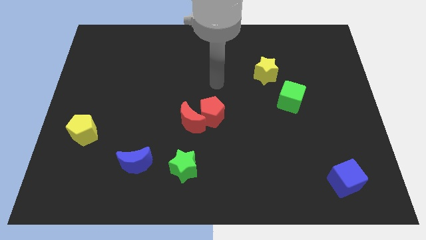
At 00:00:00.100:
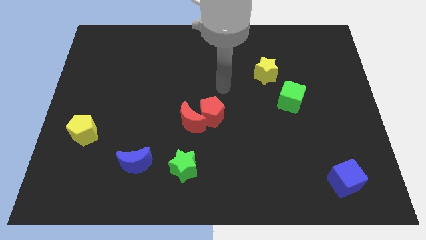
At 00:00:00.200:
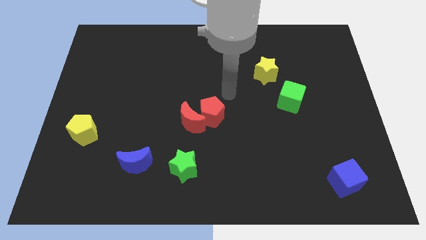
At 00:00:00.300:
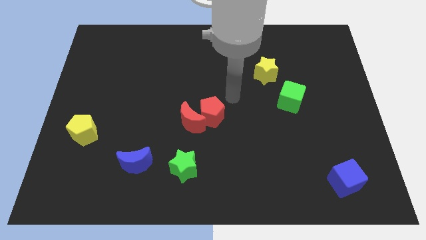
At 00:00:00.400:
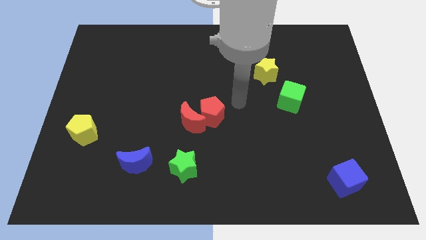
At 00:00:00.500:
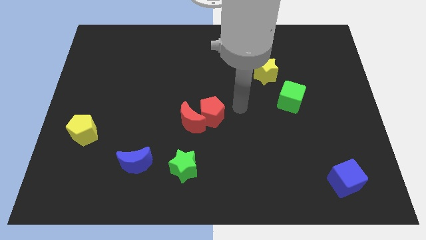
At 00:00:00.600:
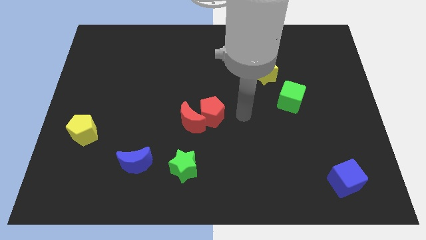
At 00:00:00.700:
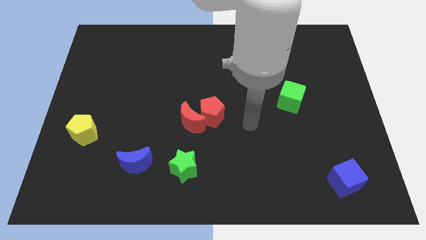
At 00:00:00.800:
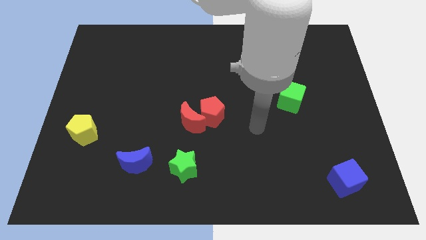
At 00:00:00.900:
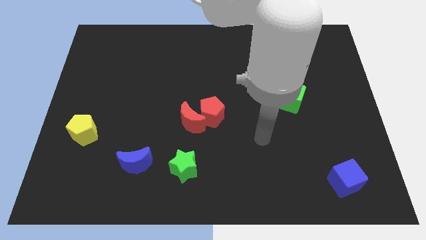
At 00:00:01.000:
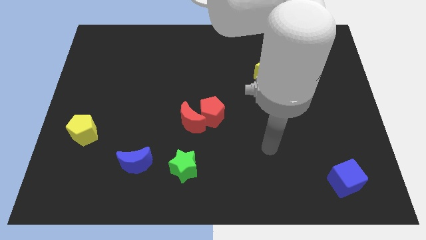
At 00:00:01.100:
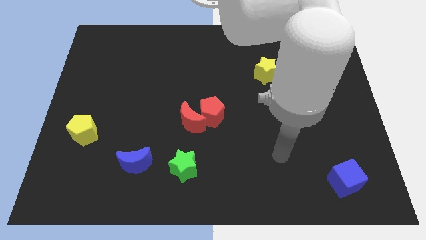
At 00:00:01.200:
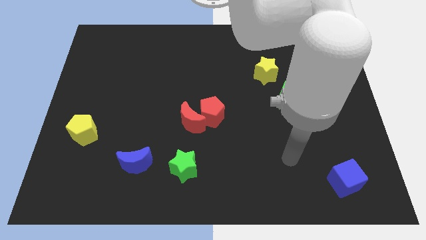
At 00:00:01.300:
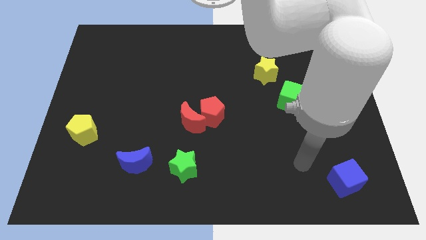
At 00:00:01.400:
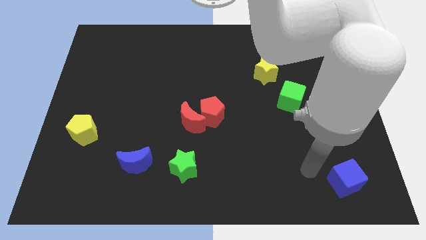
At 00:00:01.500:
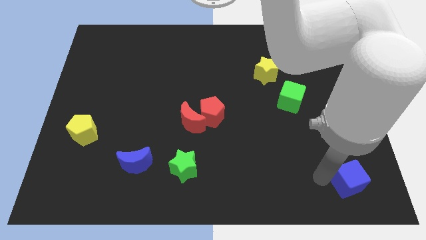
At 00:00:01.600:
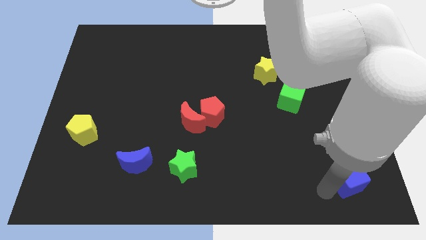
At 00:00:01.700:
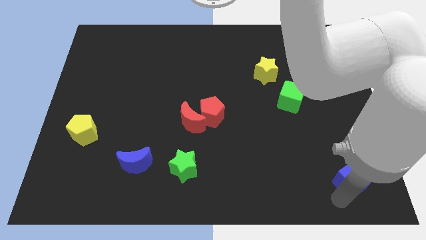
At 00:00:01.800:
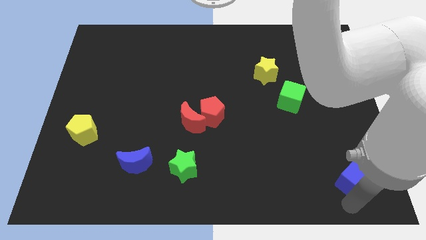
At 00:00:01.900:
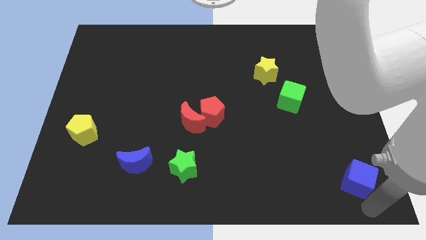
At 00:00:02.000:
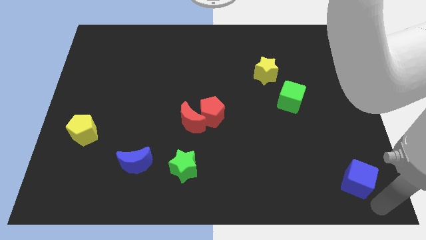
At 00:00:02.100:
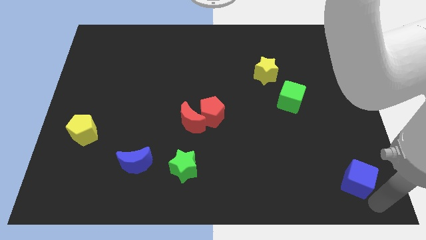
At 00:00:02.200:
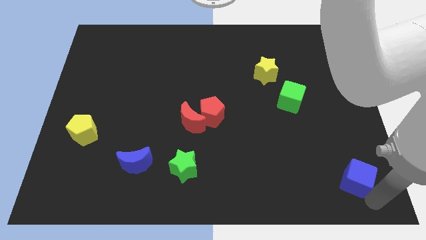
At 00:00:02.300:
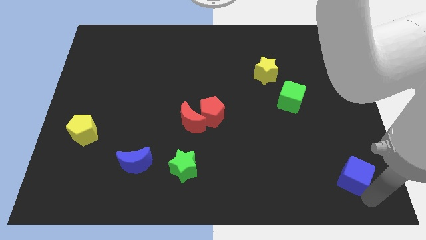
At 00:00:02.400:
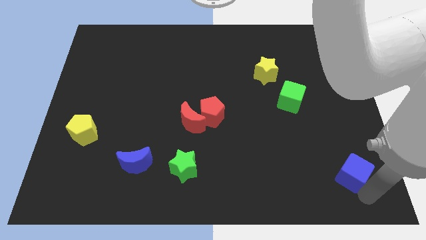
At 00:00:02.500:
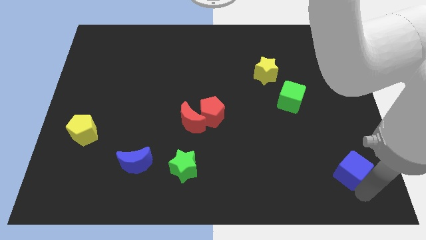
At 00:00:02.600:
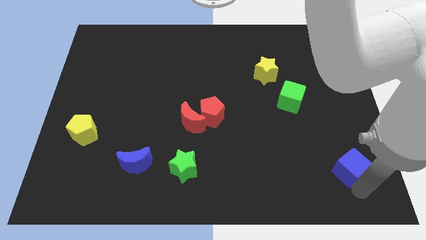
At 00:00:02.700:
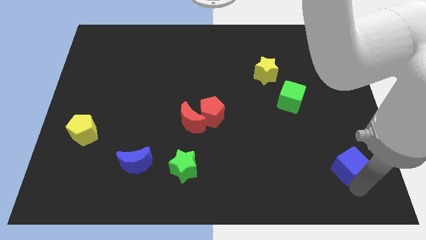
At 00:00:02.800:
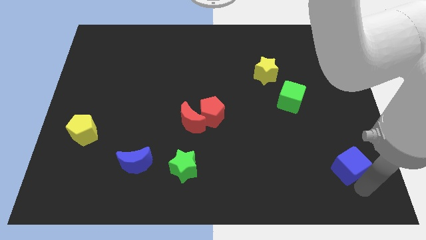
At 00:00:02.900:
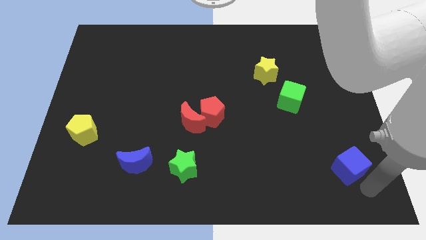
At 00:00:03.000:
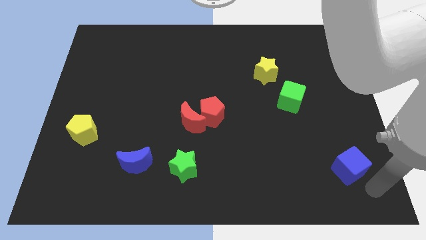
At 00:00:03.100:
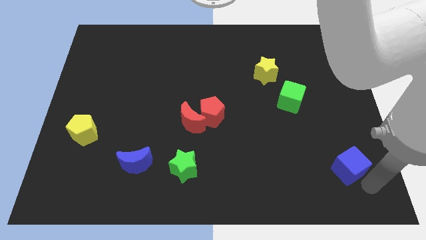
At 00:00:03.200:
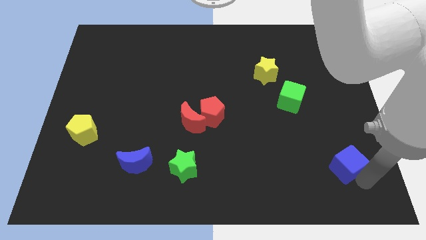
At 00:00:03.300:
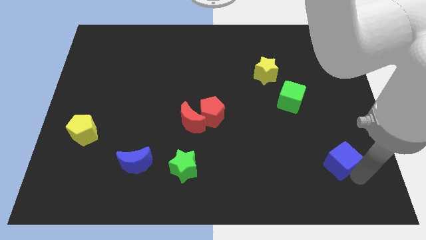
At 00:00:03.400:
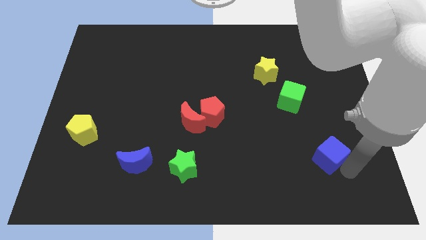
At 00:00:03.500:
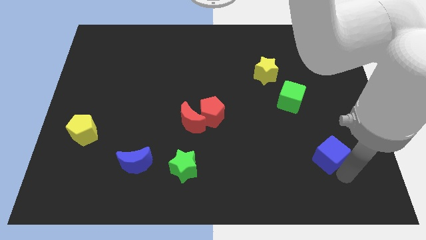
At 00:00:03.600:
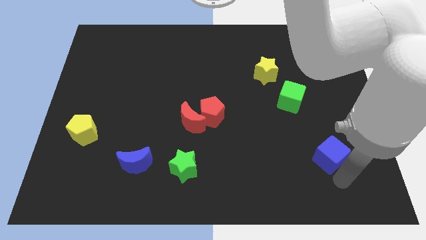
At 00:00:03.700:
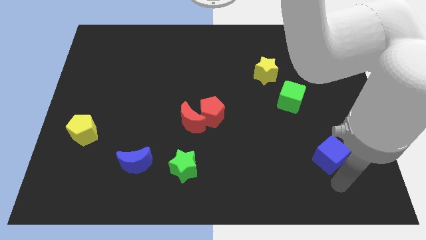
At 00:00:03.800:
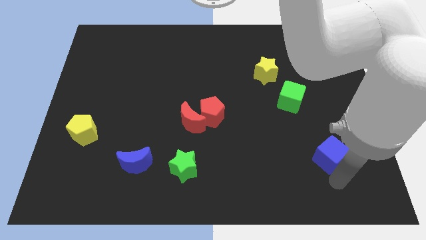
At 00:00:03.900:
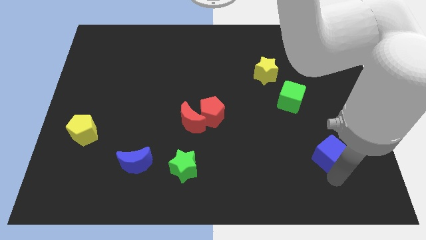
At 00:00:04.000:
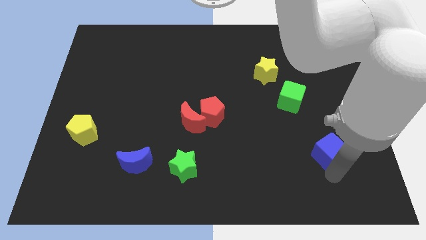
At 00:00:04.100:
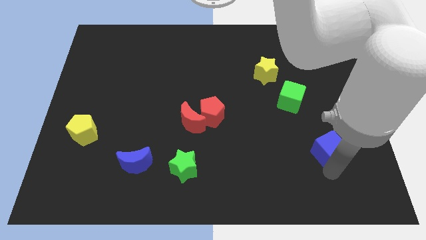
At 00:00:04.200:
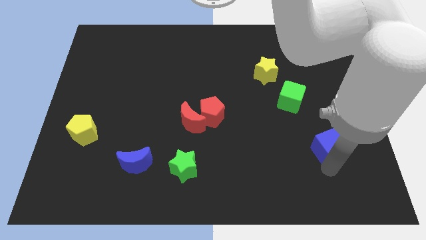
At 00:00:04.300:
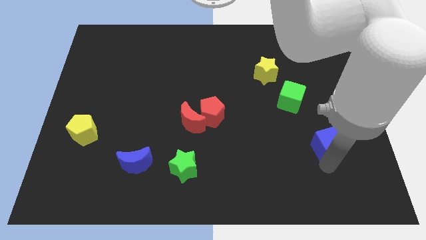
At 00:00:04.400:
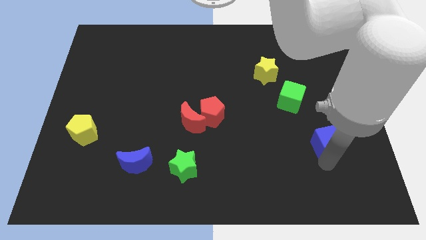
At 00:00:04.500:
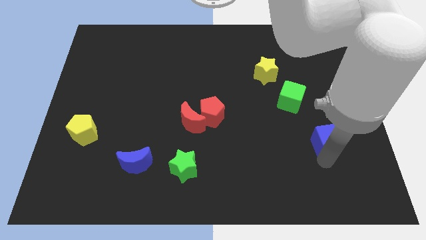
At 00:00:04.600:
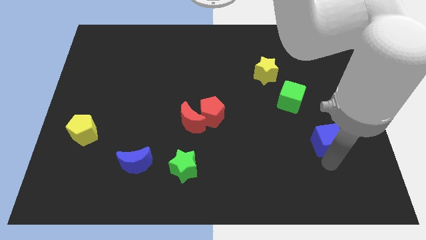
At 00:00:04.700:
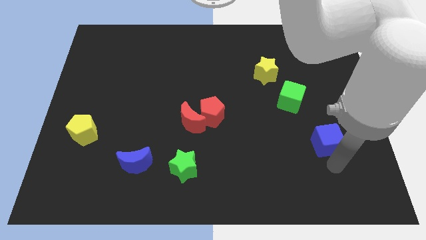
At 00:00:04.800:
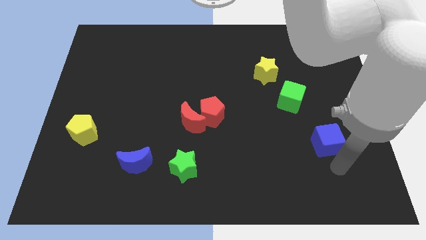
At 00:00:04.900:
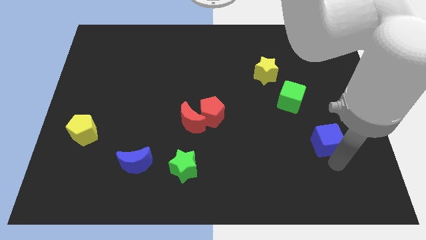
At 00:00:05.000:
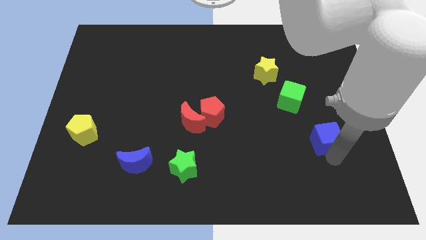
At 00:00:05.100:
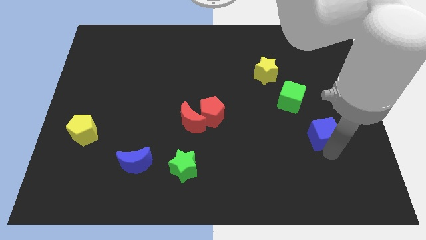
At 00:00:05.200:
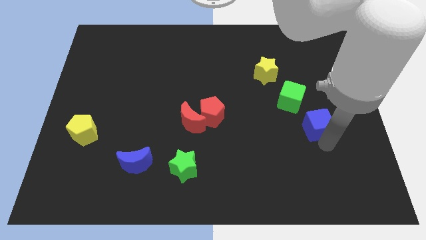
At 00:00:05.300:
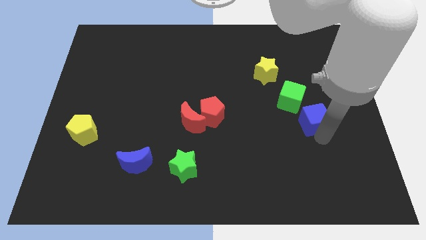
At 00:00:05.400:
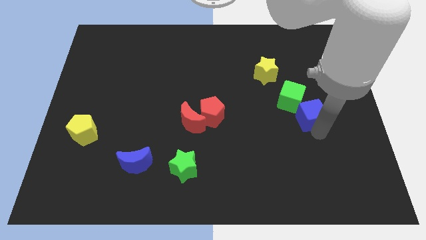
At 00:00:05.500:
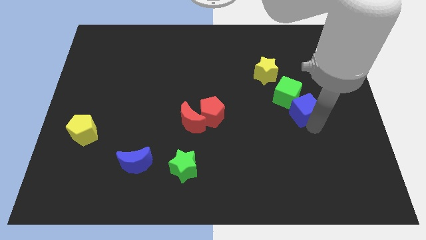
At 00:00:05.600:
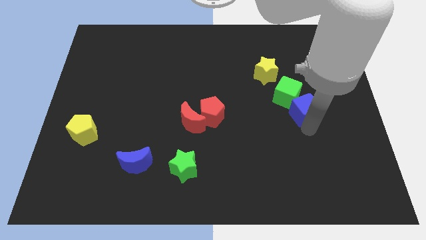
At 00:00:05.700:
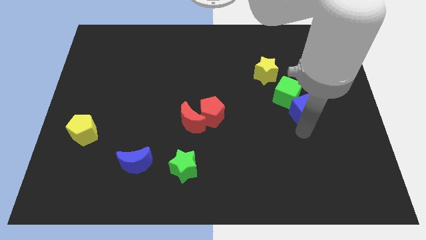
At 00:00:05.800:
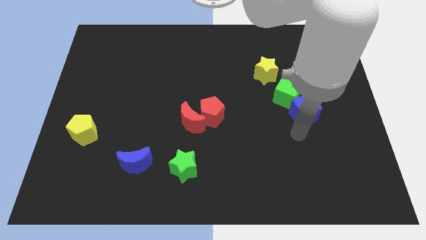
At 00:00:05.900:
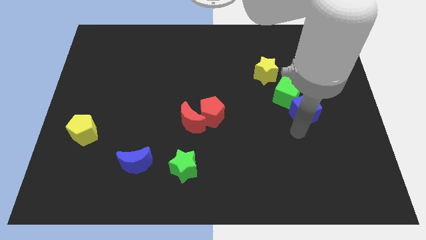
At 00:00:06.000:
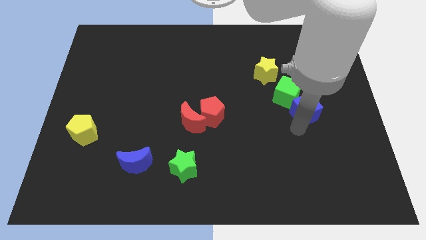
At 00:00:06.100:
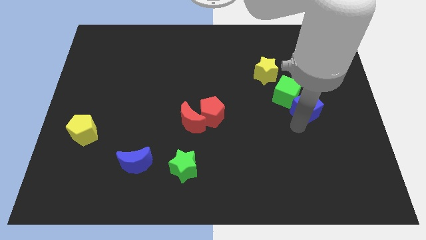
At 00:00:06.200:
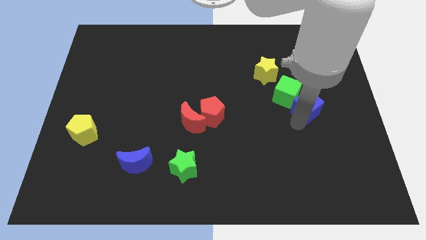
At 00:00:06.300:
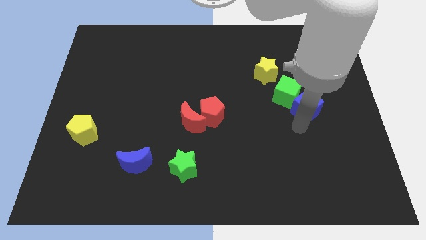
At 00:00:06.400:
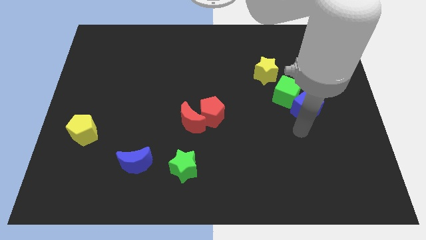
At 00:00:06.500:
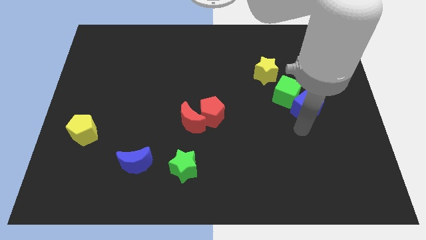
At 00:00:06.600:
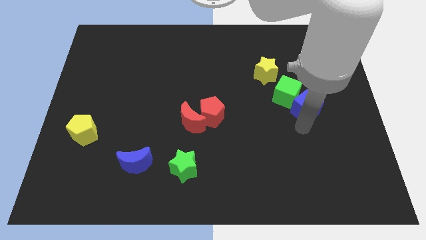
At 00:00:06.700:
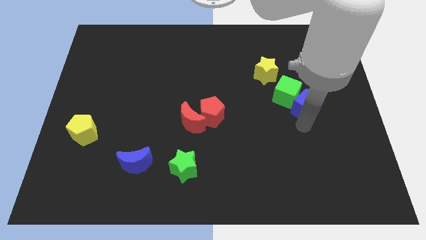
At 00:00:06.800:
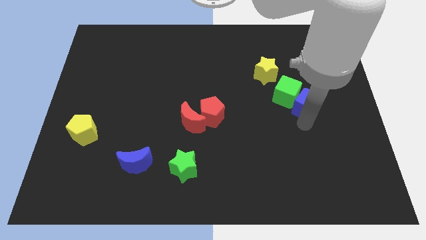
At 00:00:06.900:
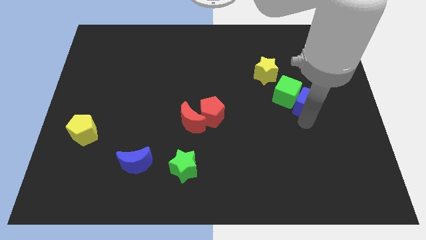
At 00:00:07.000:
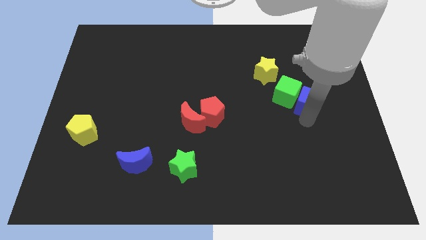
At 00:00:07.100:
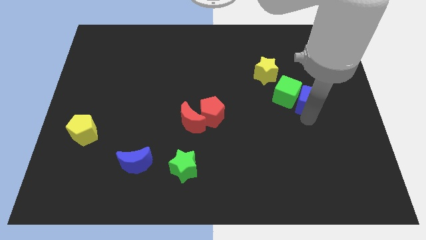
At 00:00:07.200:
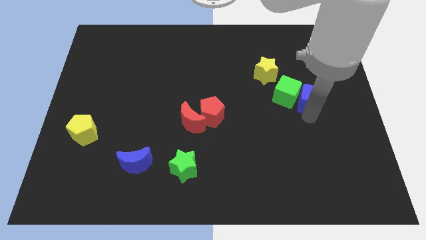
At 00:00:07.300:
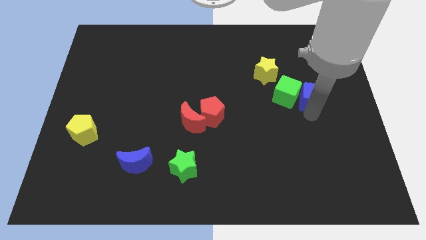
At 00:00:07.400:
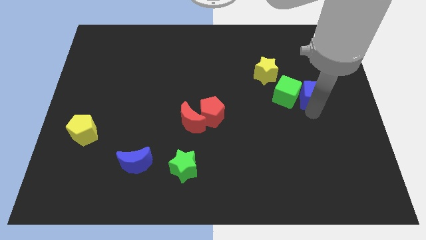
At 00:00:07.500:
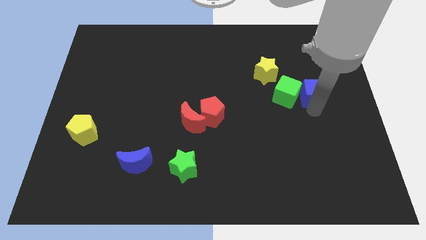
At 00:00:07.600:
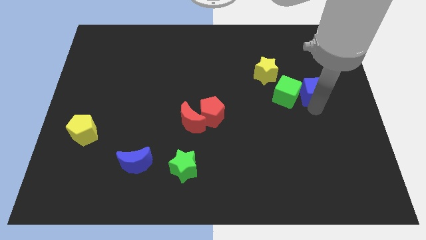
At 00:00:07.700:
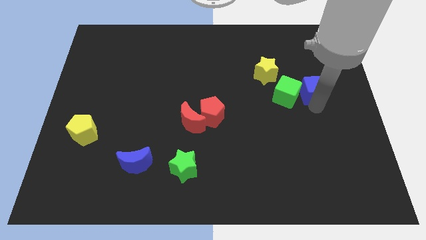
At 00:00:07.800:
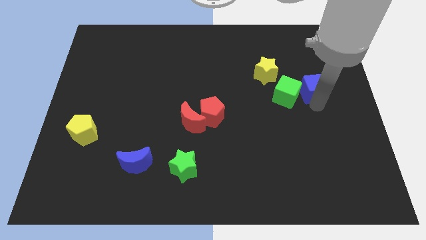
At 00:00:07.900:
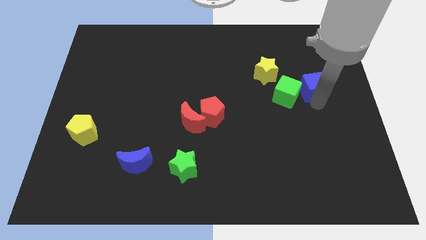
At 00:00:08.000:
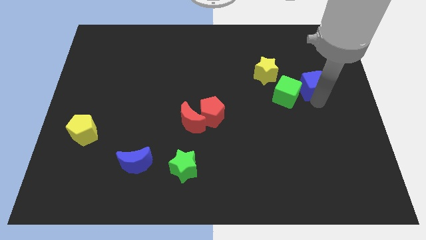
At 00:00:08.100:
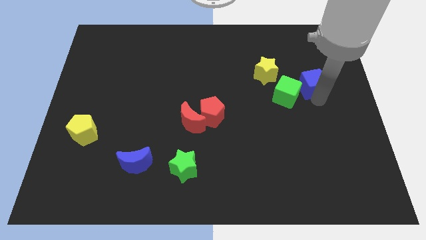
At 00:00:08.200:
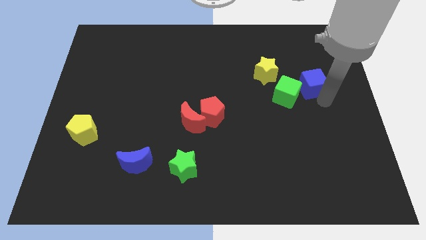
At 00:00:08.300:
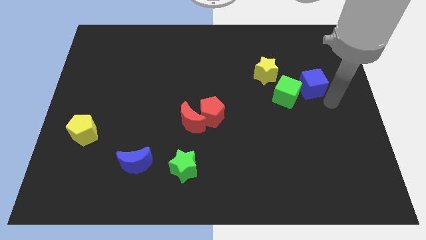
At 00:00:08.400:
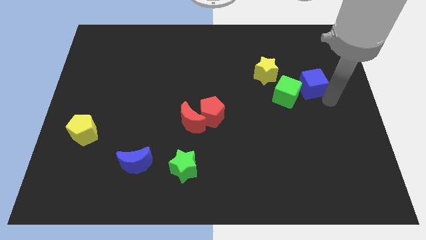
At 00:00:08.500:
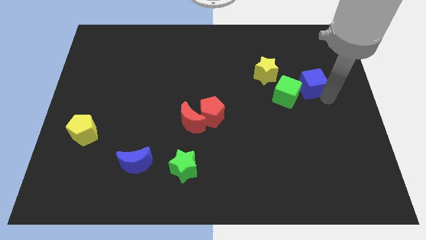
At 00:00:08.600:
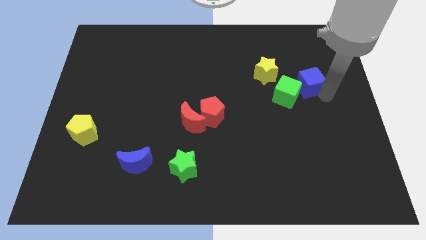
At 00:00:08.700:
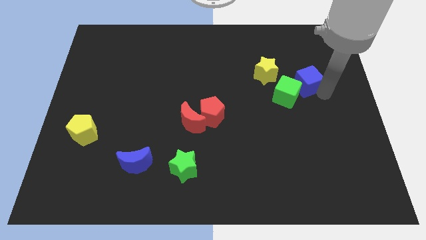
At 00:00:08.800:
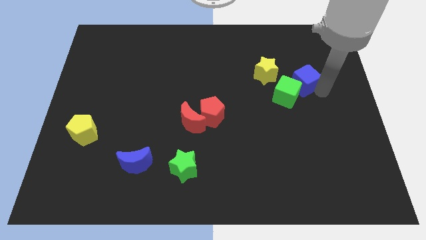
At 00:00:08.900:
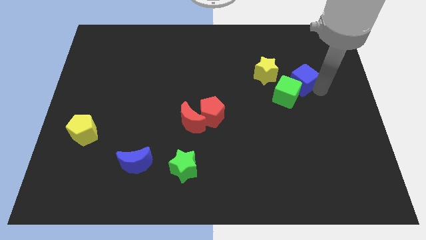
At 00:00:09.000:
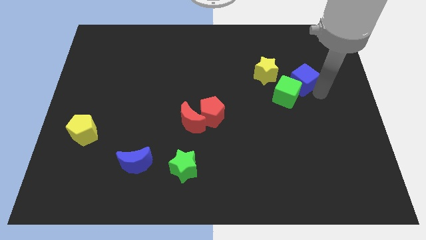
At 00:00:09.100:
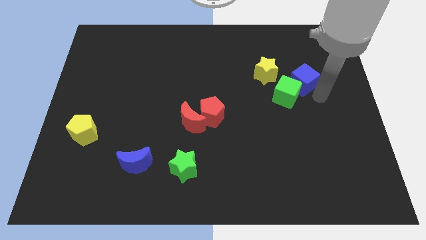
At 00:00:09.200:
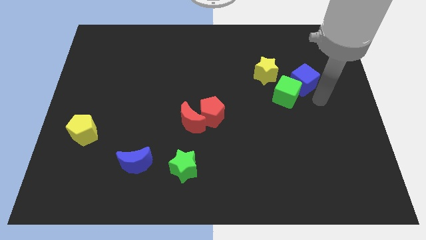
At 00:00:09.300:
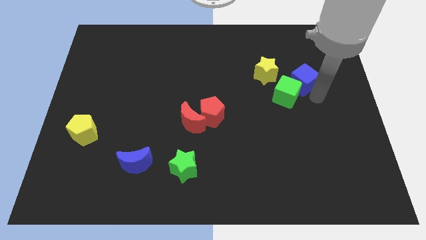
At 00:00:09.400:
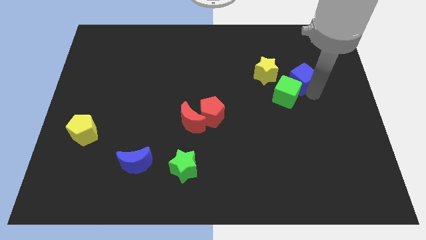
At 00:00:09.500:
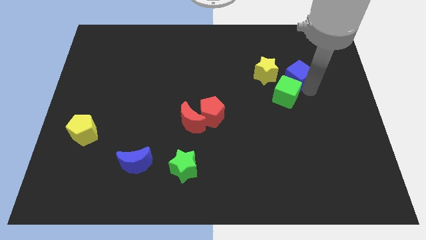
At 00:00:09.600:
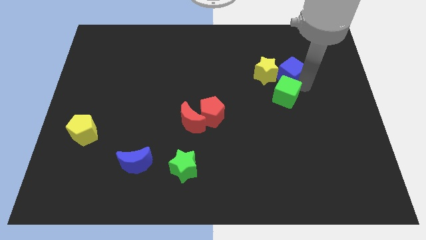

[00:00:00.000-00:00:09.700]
slide the blue cube diagonally up and to the right of the yellow star
